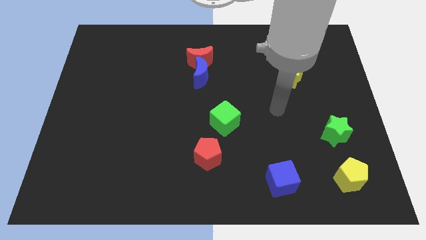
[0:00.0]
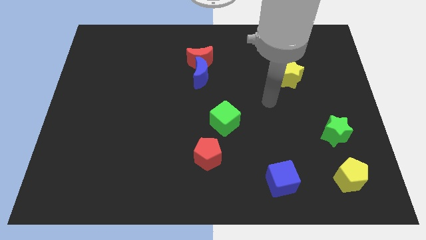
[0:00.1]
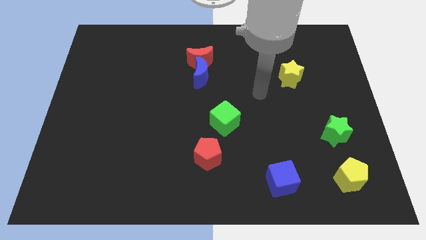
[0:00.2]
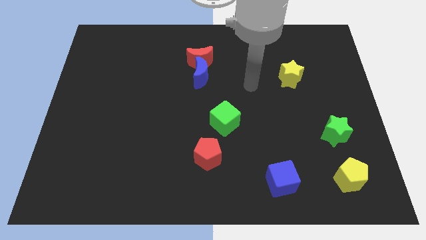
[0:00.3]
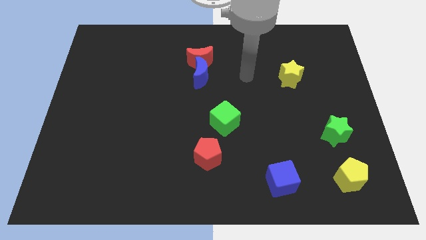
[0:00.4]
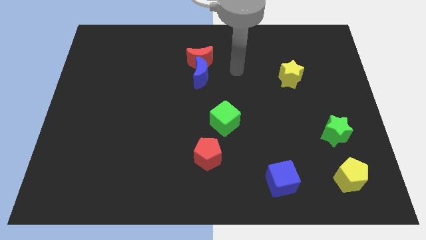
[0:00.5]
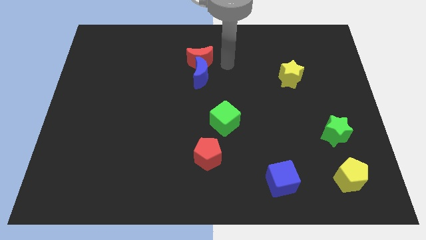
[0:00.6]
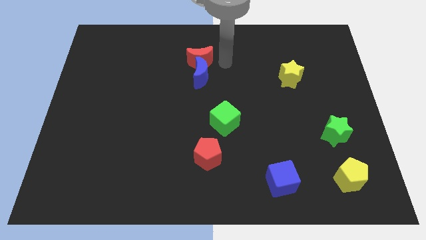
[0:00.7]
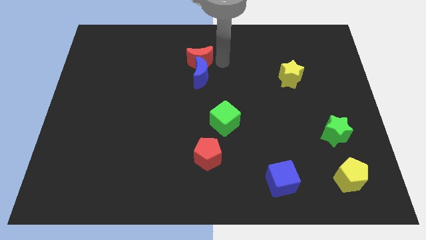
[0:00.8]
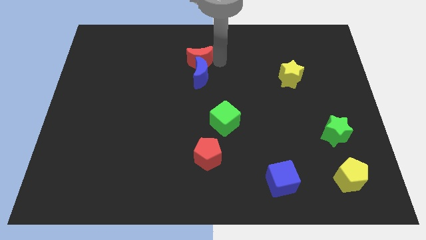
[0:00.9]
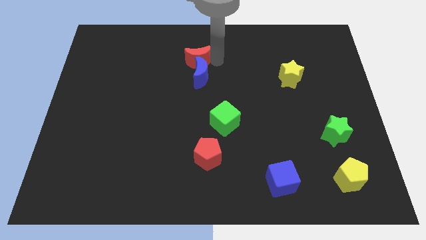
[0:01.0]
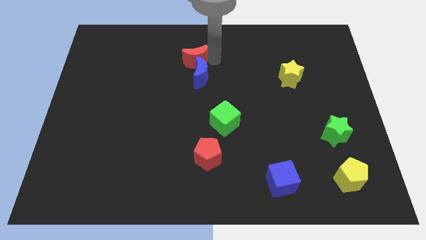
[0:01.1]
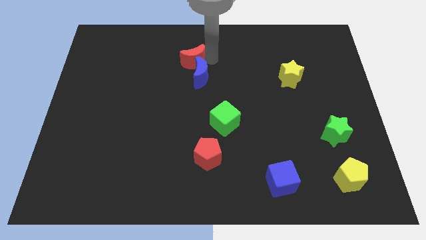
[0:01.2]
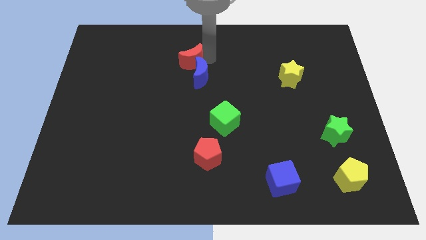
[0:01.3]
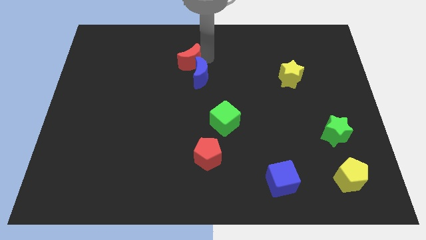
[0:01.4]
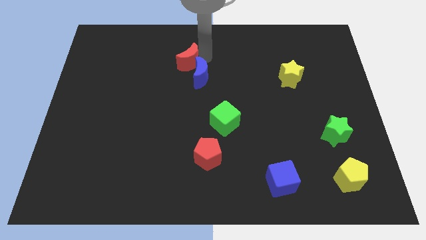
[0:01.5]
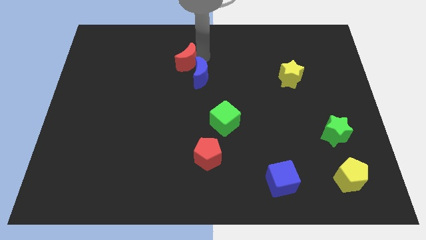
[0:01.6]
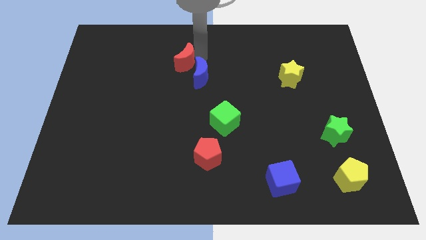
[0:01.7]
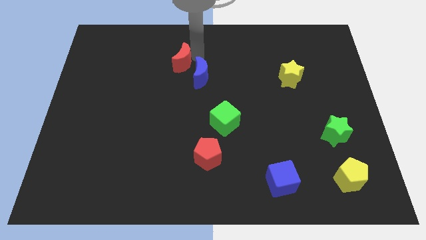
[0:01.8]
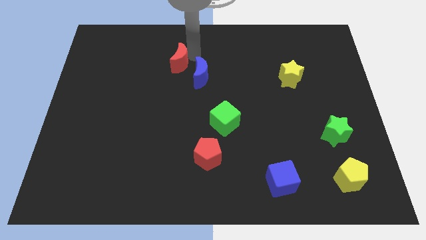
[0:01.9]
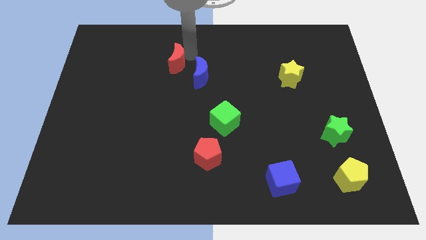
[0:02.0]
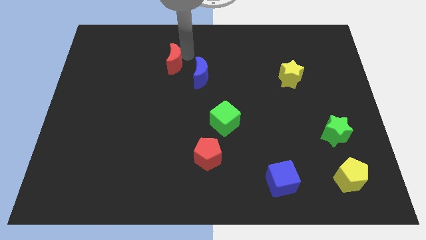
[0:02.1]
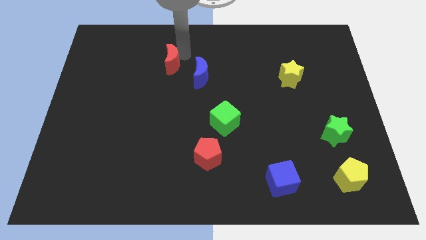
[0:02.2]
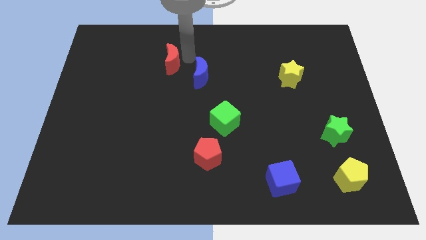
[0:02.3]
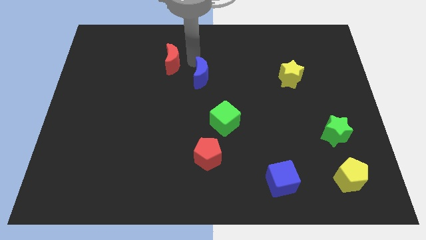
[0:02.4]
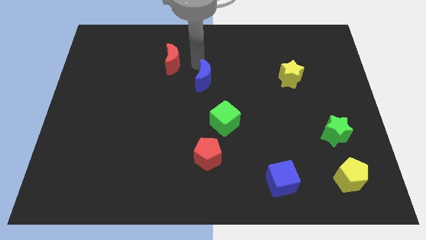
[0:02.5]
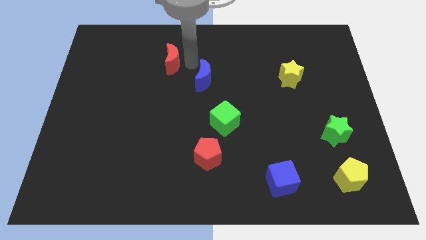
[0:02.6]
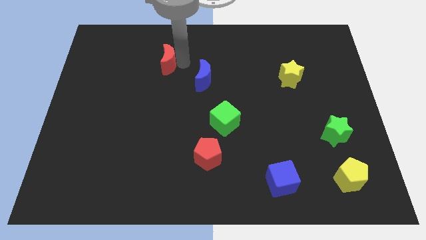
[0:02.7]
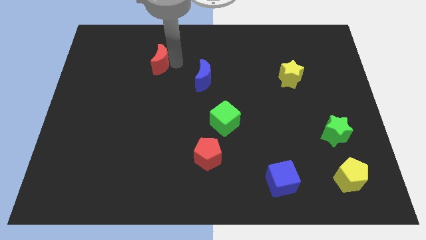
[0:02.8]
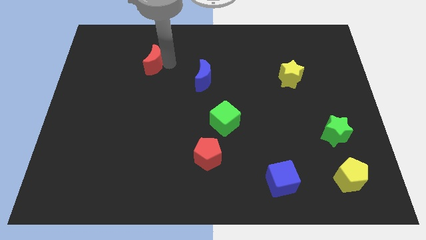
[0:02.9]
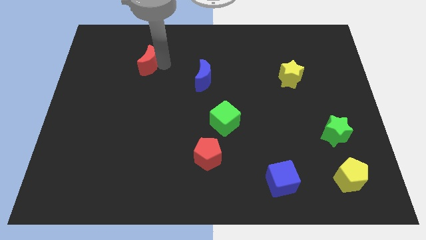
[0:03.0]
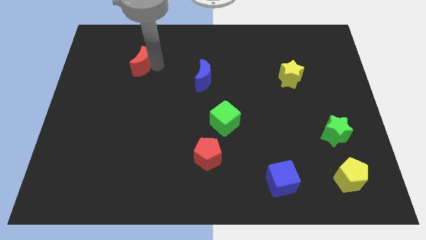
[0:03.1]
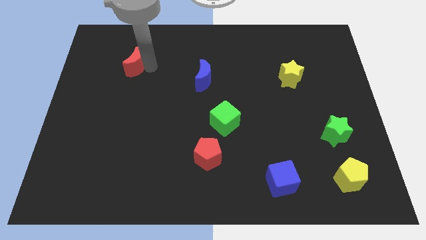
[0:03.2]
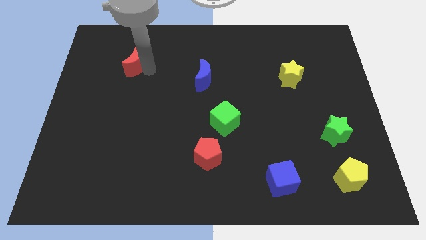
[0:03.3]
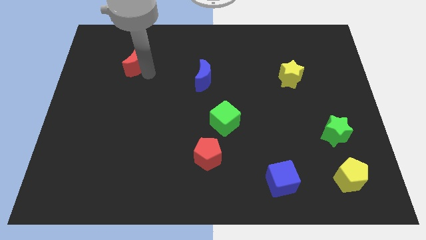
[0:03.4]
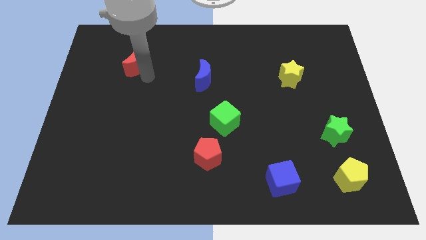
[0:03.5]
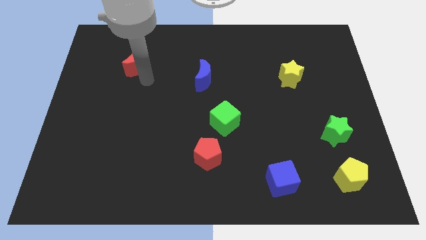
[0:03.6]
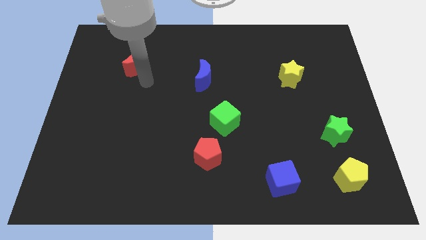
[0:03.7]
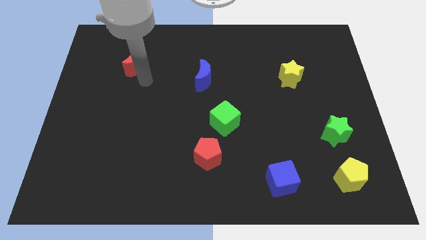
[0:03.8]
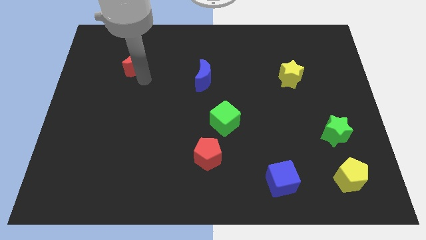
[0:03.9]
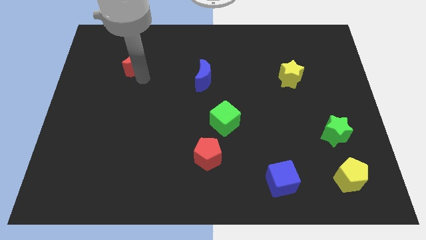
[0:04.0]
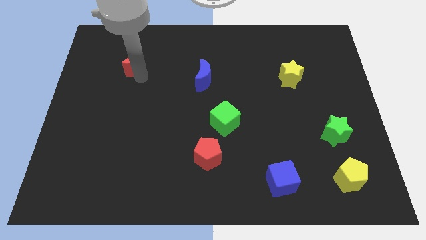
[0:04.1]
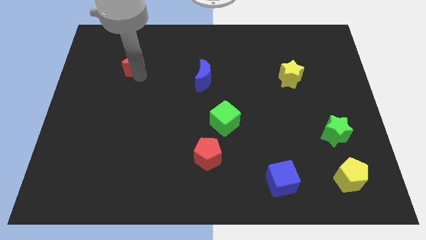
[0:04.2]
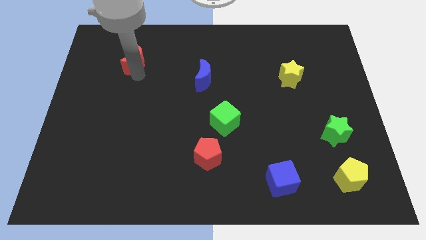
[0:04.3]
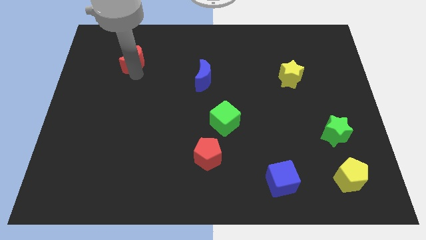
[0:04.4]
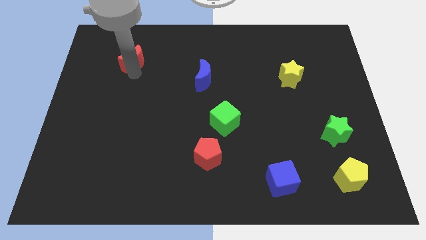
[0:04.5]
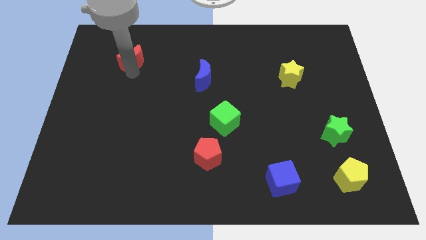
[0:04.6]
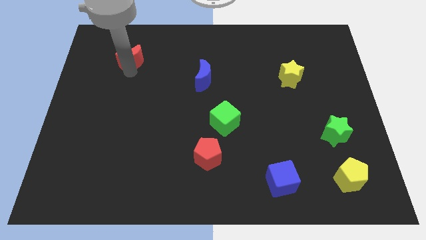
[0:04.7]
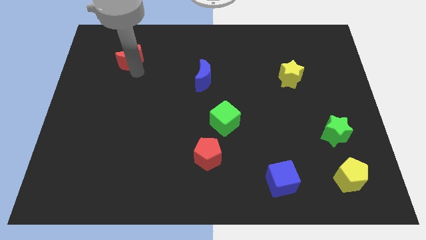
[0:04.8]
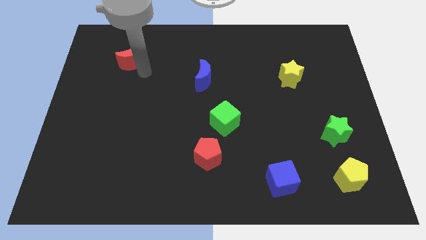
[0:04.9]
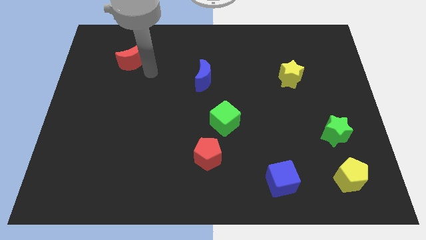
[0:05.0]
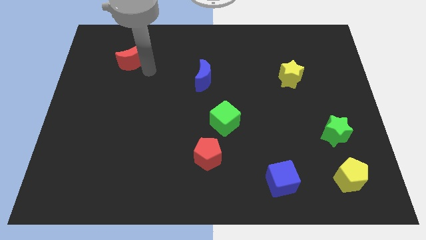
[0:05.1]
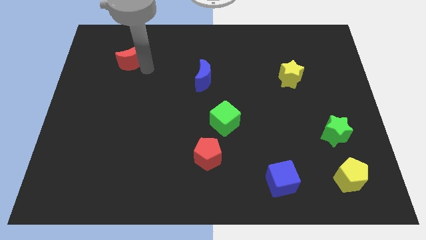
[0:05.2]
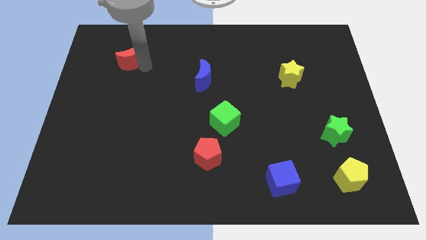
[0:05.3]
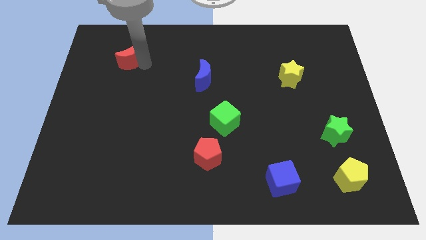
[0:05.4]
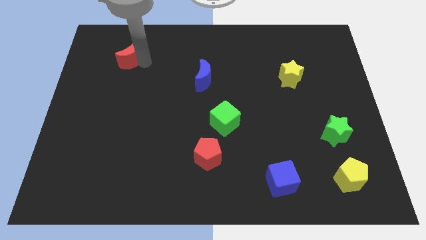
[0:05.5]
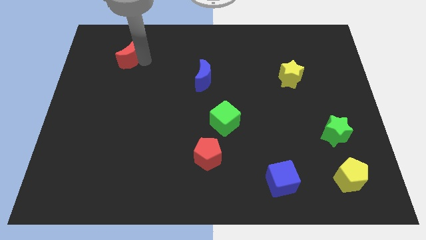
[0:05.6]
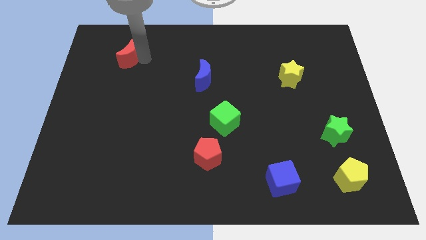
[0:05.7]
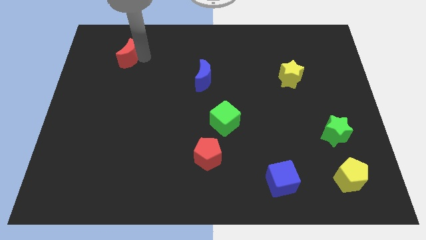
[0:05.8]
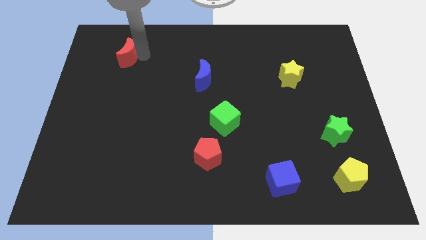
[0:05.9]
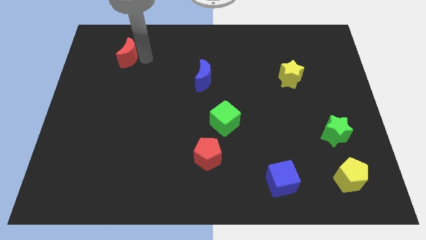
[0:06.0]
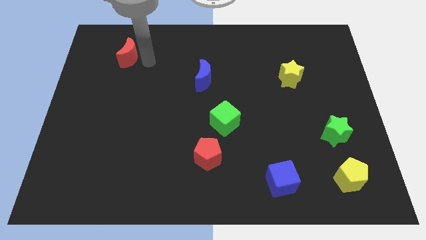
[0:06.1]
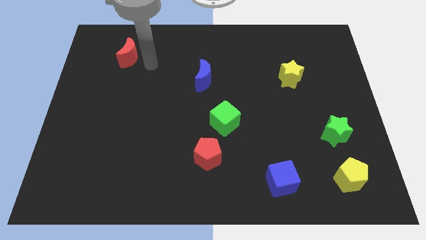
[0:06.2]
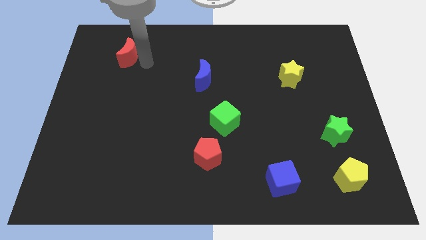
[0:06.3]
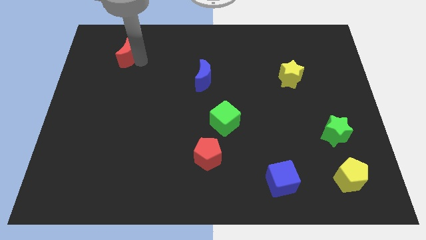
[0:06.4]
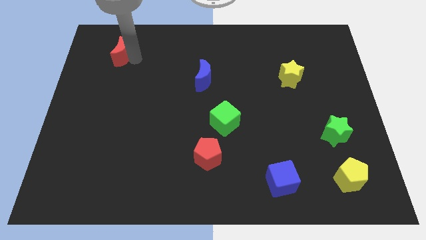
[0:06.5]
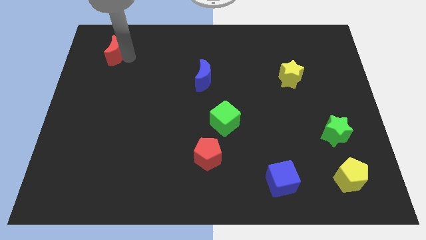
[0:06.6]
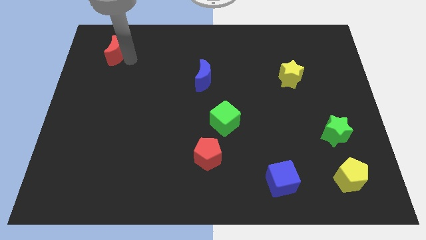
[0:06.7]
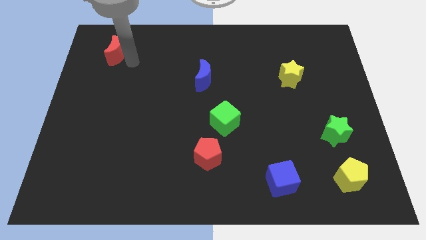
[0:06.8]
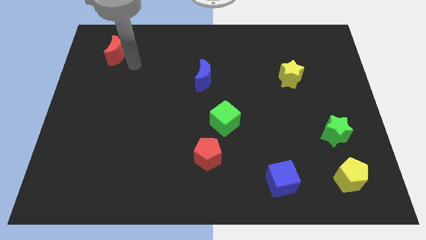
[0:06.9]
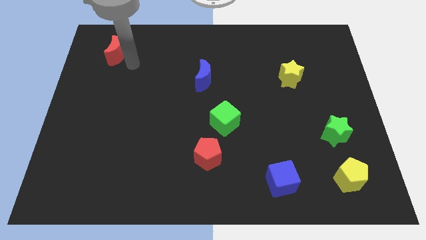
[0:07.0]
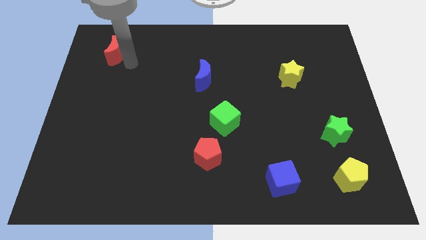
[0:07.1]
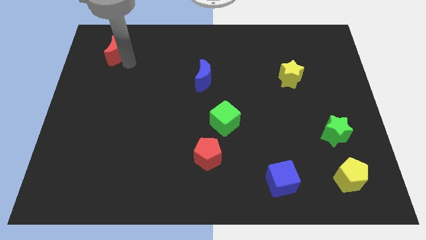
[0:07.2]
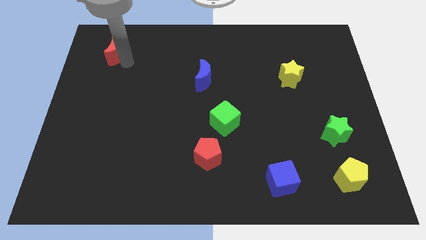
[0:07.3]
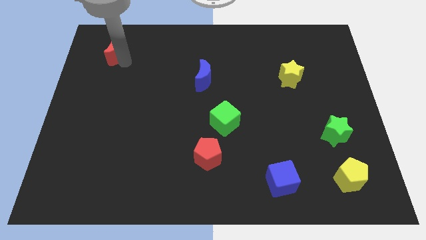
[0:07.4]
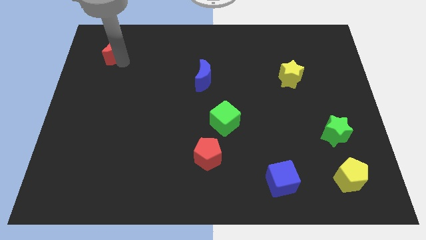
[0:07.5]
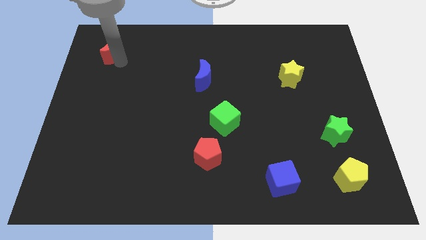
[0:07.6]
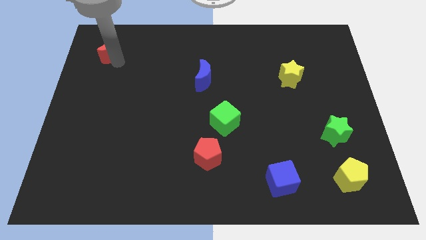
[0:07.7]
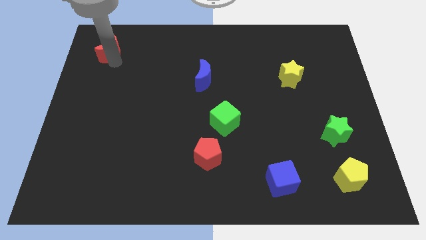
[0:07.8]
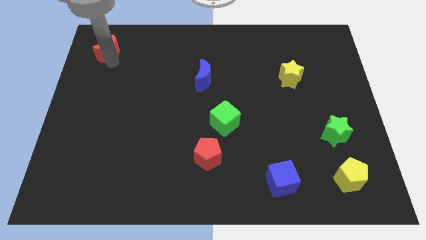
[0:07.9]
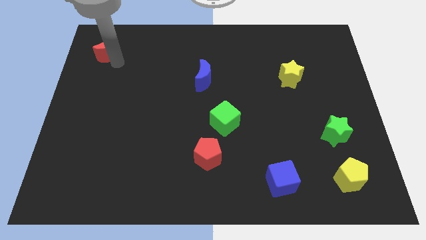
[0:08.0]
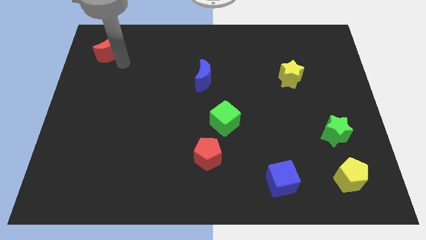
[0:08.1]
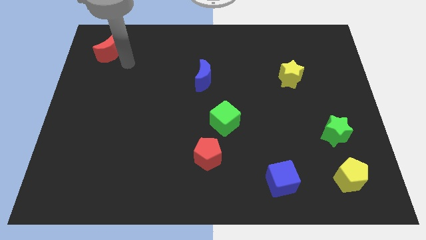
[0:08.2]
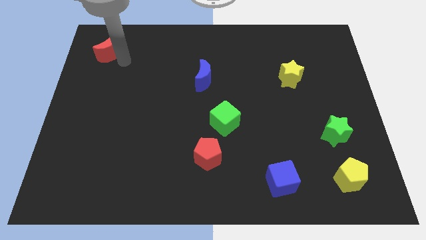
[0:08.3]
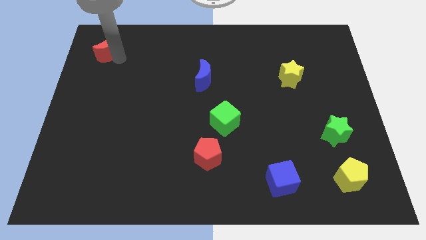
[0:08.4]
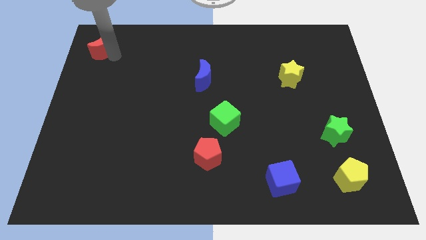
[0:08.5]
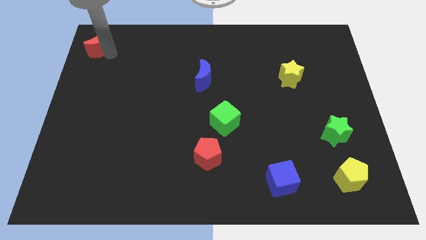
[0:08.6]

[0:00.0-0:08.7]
push the red moon to the top left
